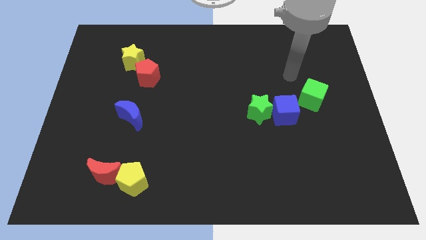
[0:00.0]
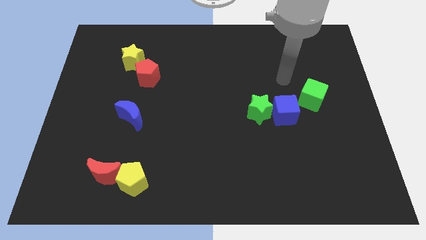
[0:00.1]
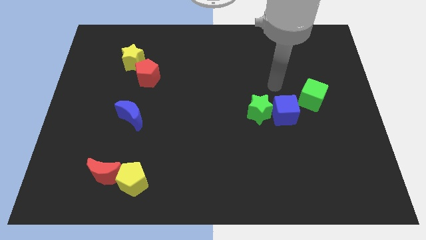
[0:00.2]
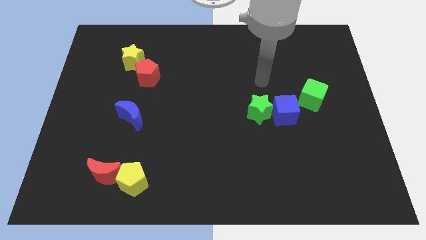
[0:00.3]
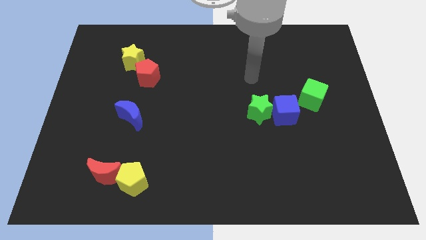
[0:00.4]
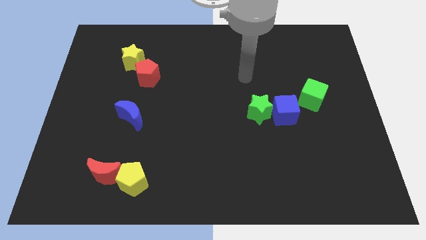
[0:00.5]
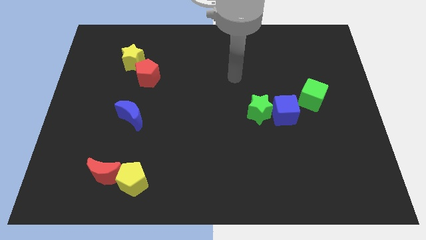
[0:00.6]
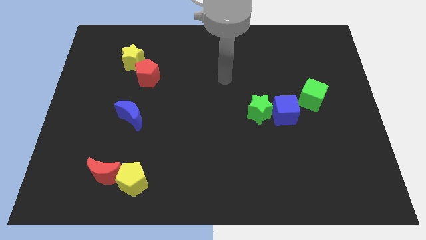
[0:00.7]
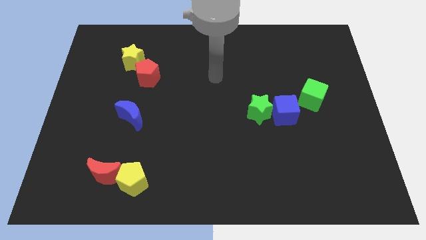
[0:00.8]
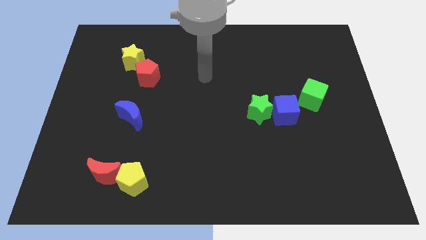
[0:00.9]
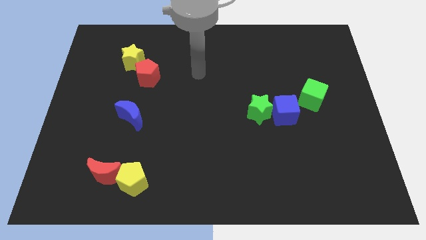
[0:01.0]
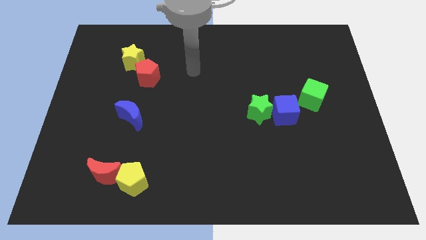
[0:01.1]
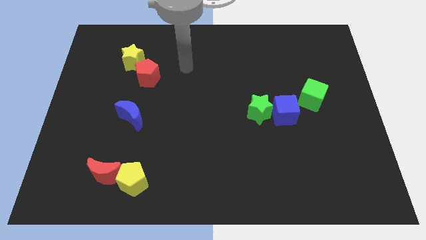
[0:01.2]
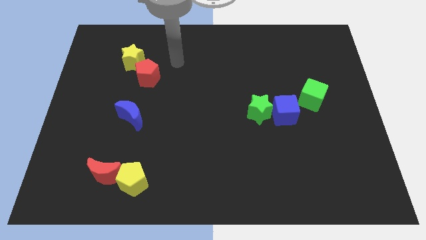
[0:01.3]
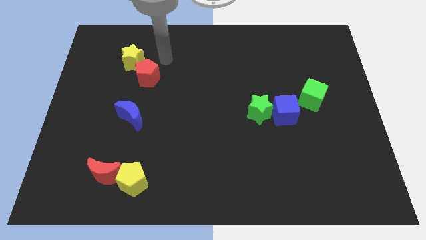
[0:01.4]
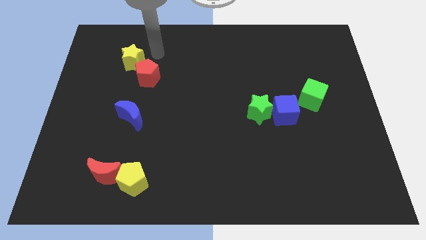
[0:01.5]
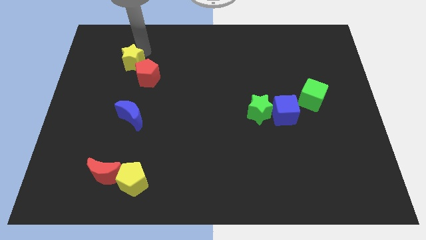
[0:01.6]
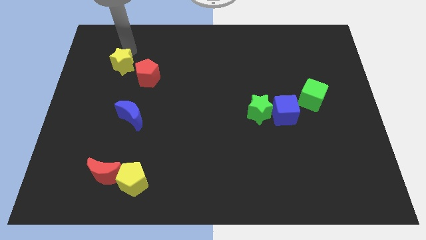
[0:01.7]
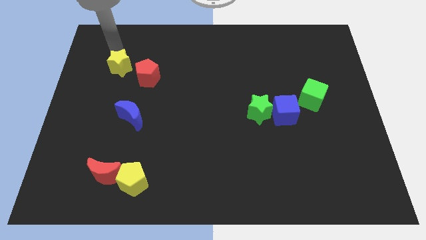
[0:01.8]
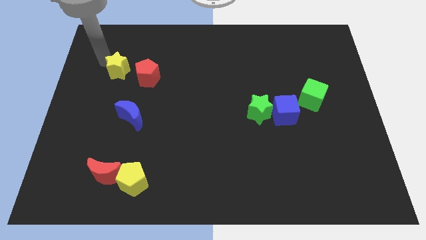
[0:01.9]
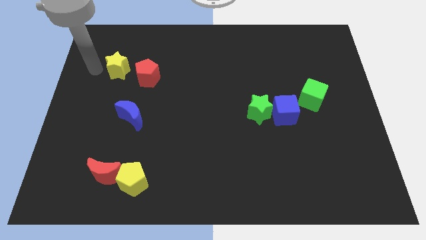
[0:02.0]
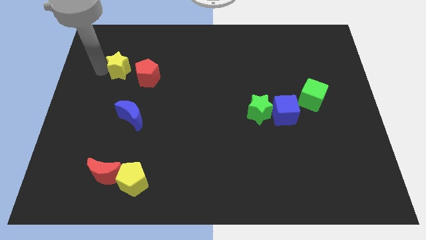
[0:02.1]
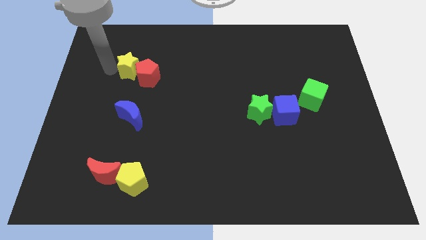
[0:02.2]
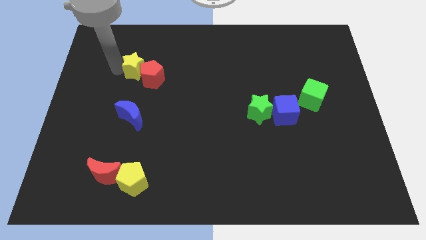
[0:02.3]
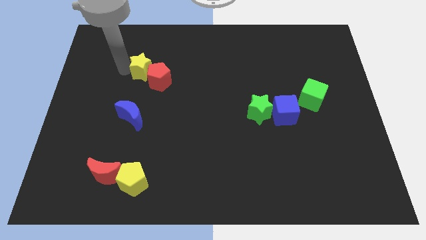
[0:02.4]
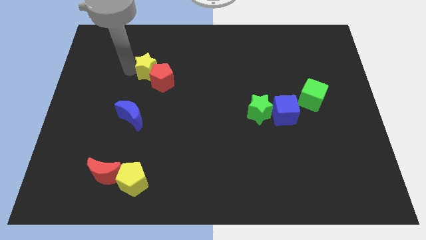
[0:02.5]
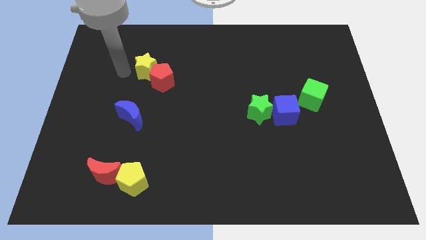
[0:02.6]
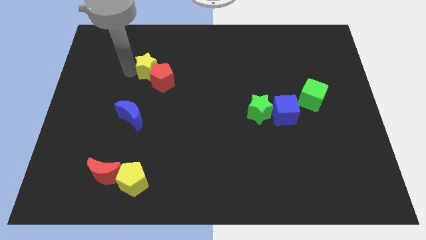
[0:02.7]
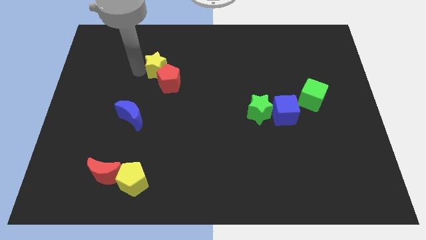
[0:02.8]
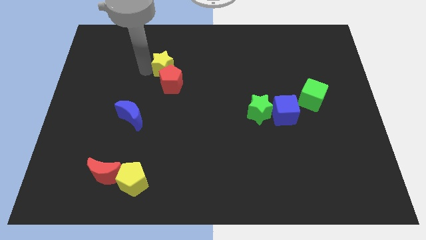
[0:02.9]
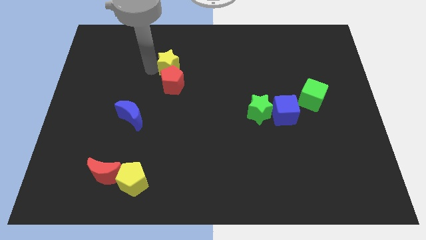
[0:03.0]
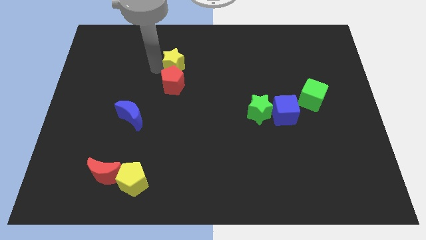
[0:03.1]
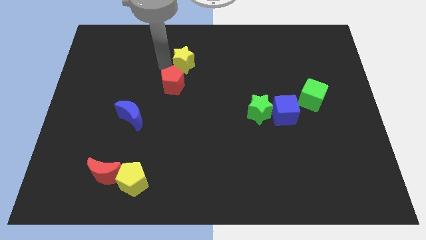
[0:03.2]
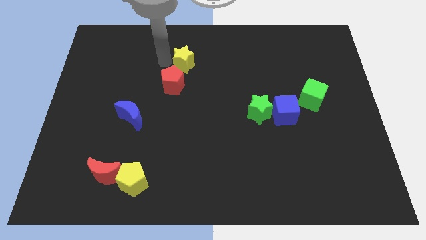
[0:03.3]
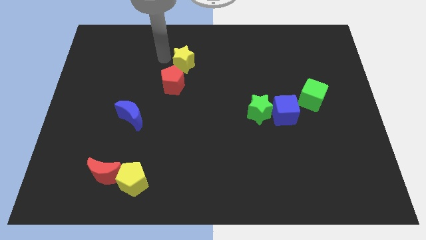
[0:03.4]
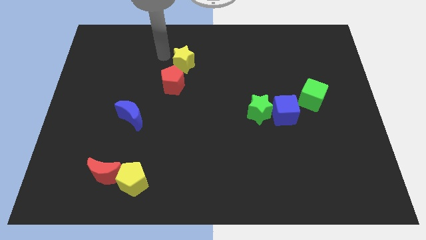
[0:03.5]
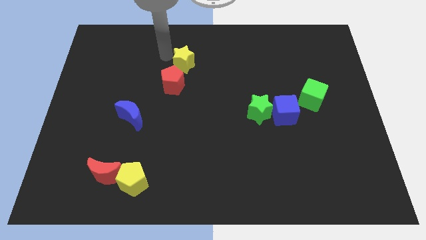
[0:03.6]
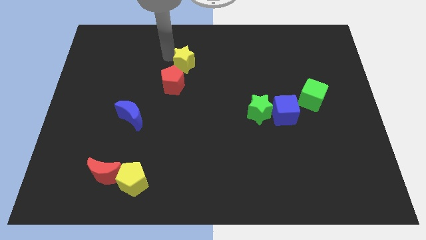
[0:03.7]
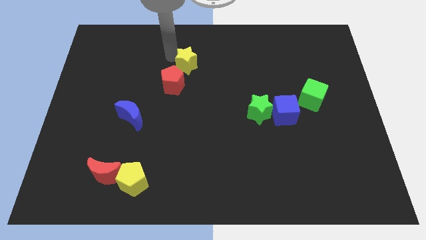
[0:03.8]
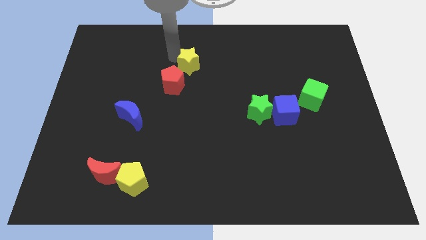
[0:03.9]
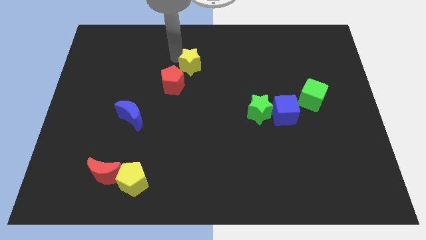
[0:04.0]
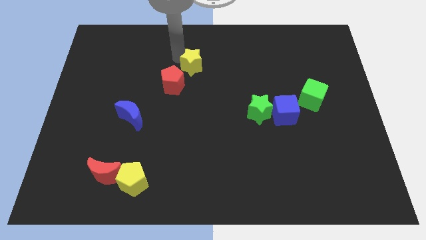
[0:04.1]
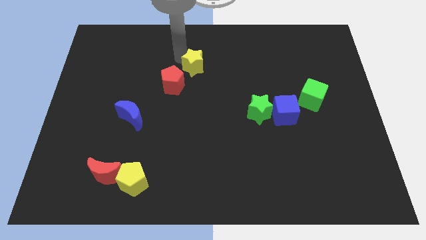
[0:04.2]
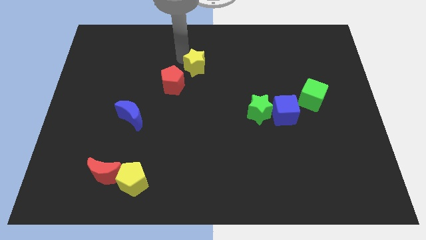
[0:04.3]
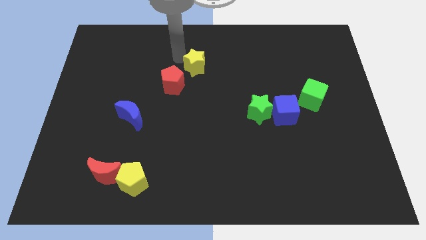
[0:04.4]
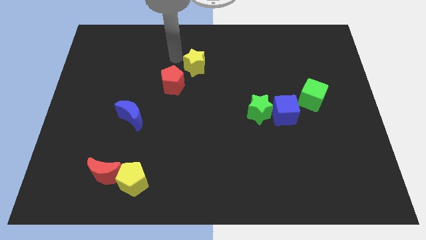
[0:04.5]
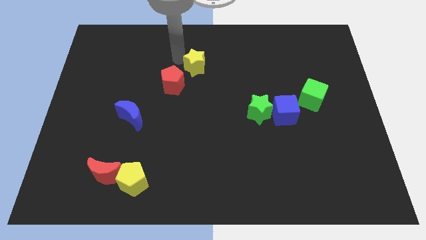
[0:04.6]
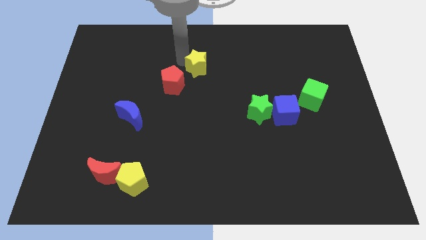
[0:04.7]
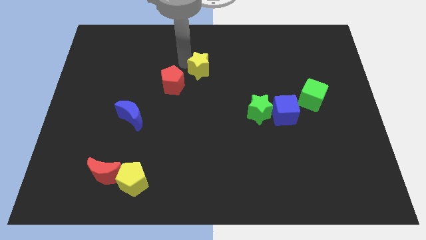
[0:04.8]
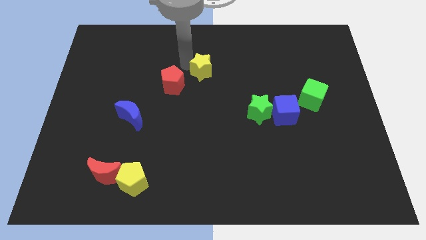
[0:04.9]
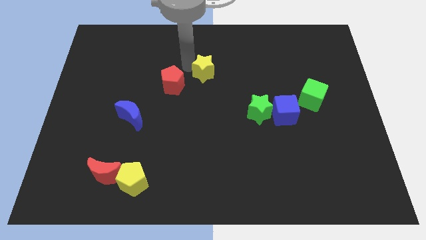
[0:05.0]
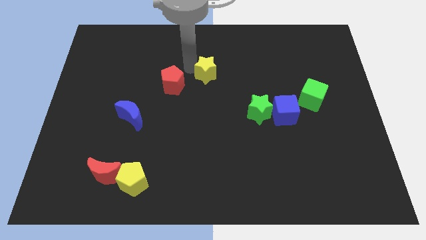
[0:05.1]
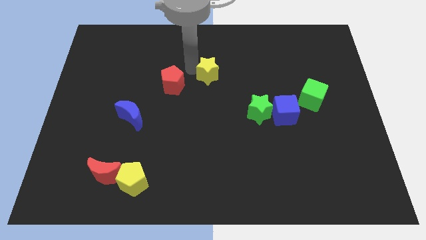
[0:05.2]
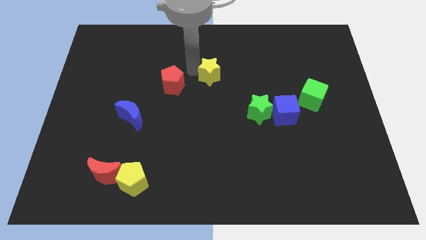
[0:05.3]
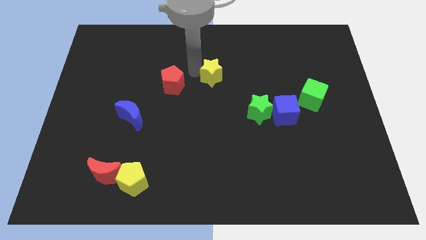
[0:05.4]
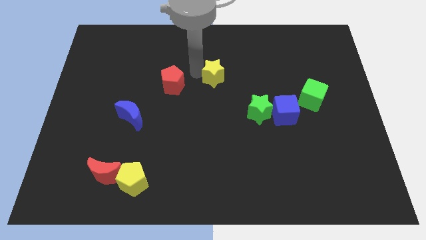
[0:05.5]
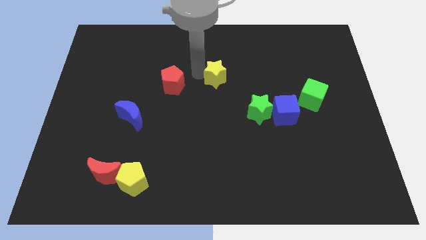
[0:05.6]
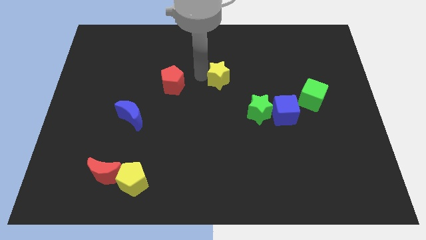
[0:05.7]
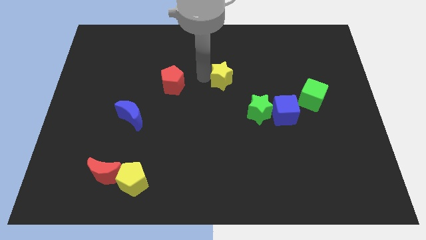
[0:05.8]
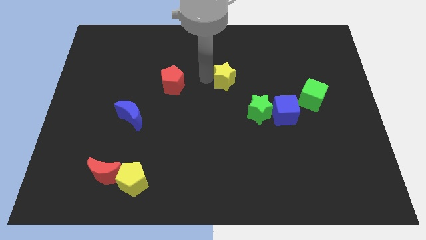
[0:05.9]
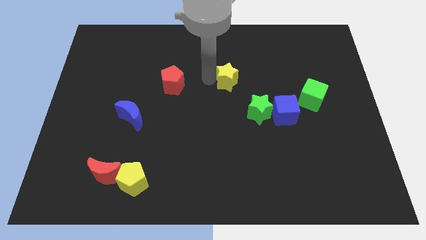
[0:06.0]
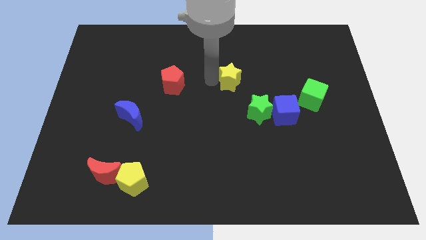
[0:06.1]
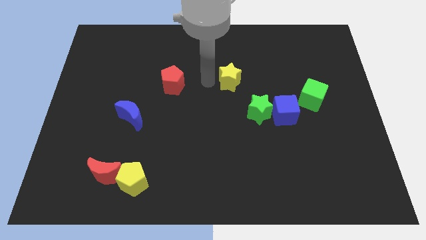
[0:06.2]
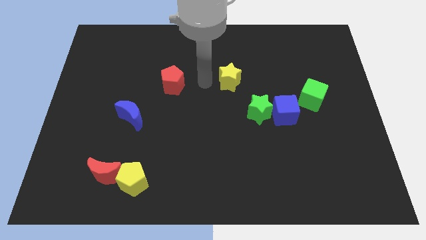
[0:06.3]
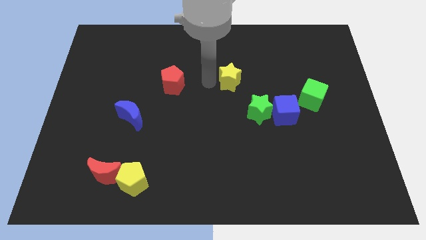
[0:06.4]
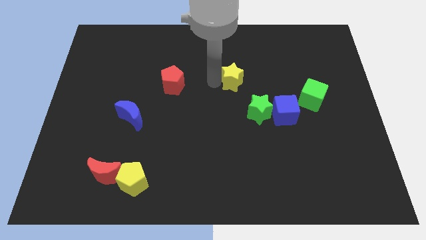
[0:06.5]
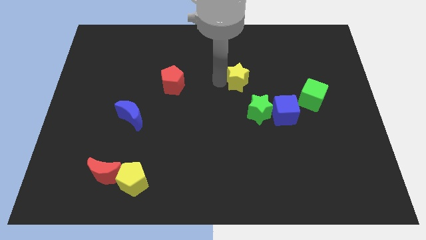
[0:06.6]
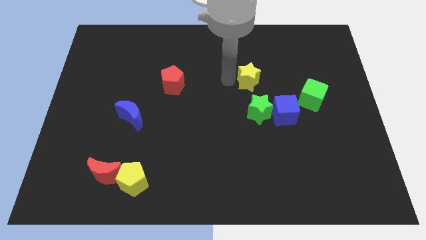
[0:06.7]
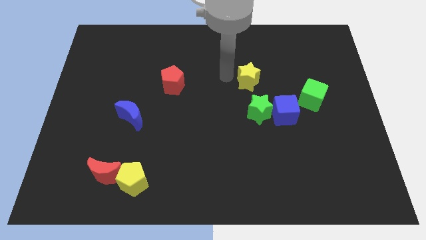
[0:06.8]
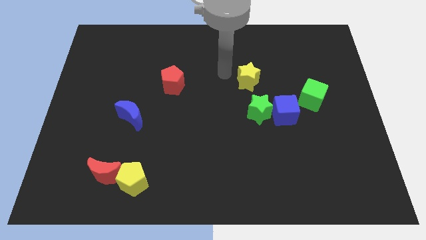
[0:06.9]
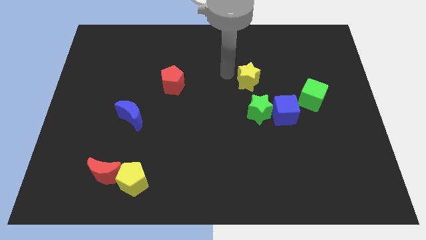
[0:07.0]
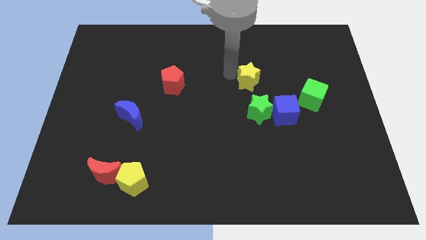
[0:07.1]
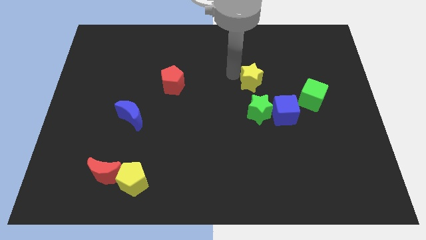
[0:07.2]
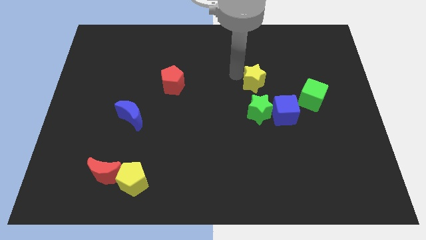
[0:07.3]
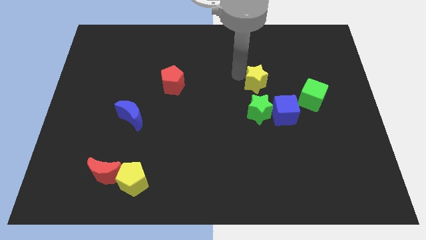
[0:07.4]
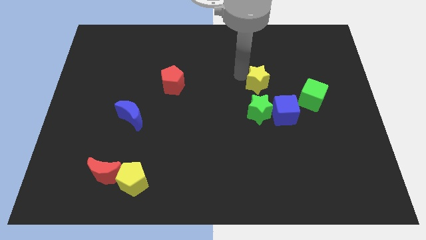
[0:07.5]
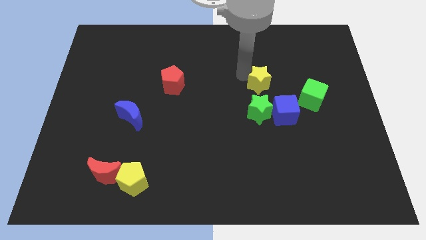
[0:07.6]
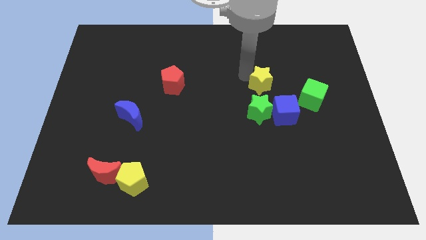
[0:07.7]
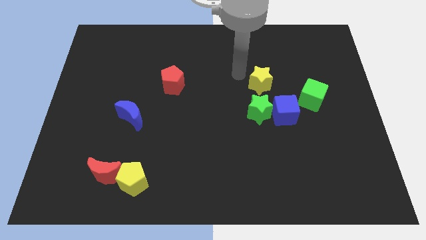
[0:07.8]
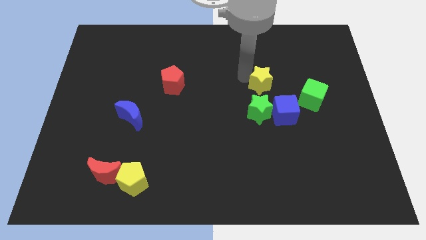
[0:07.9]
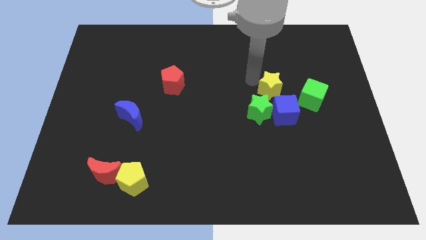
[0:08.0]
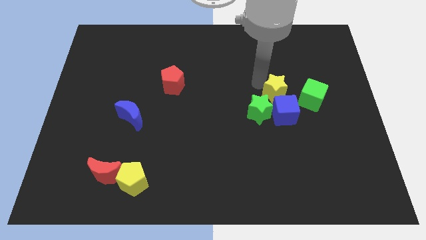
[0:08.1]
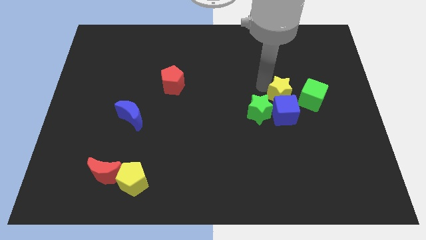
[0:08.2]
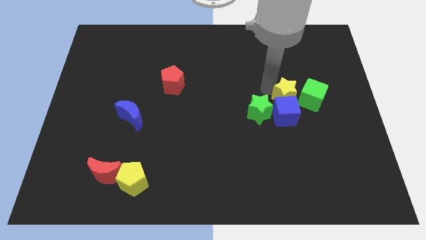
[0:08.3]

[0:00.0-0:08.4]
slide the yellow star next to the green cube
